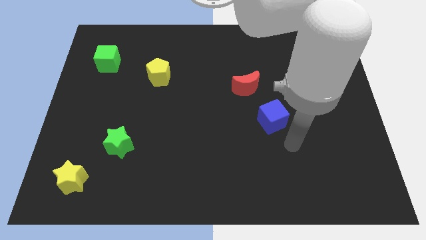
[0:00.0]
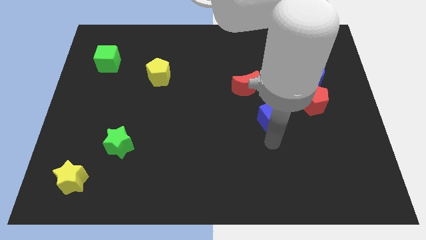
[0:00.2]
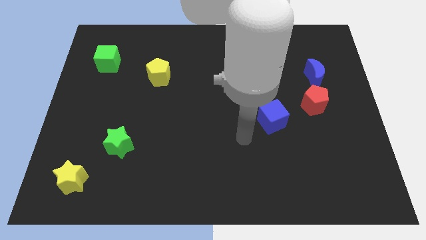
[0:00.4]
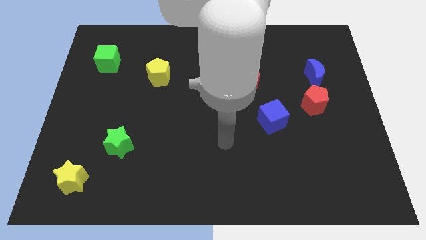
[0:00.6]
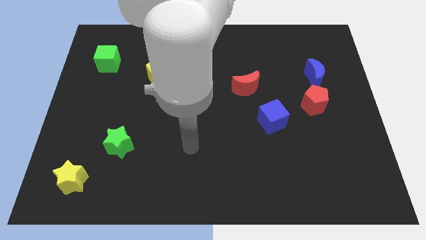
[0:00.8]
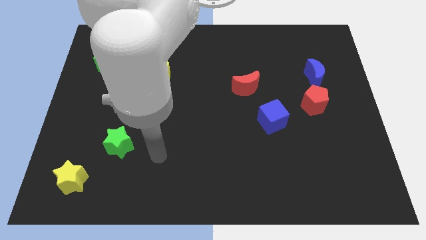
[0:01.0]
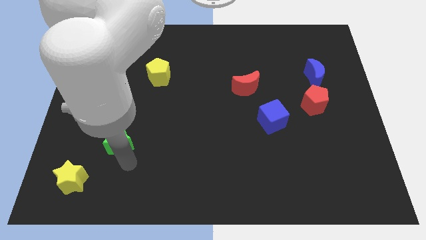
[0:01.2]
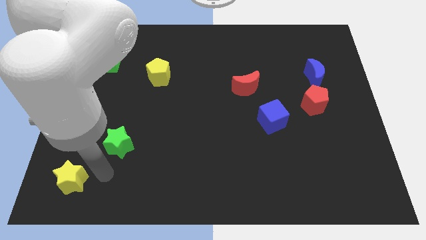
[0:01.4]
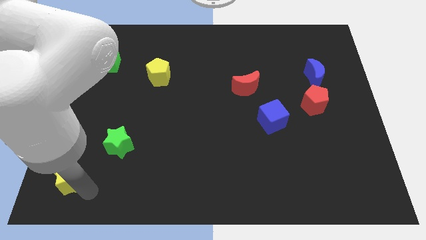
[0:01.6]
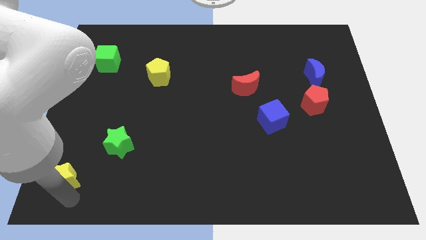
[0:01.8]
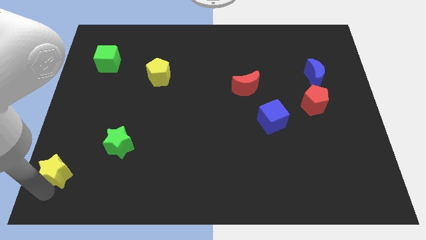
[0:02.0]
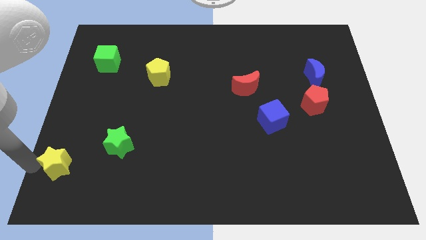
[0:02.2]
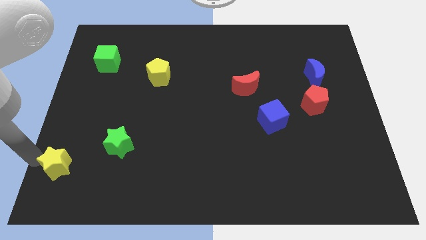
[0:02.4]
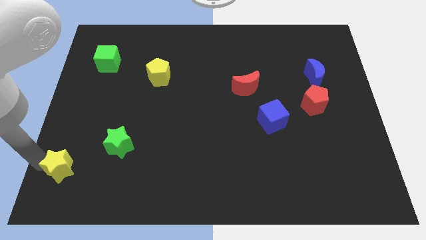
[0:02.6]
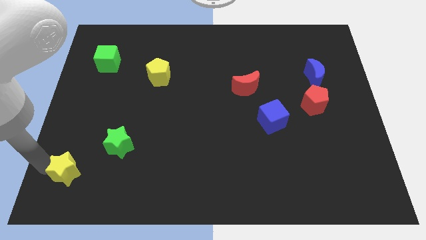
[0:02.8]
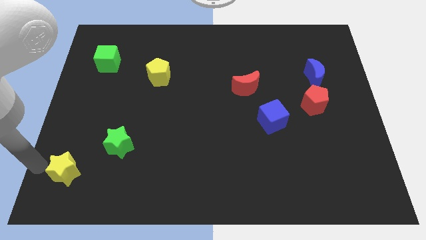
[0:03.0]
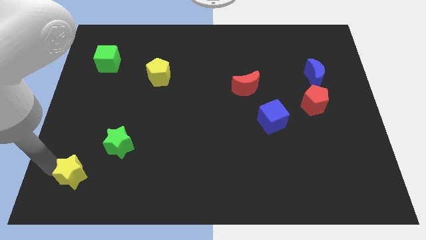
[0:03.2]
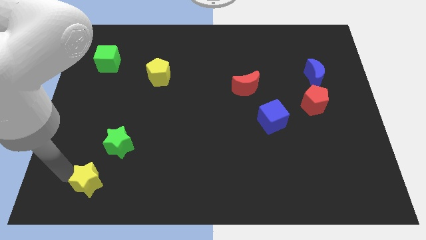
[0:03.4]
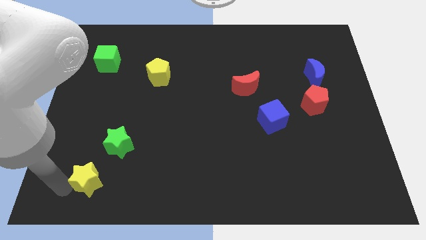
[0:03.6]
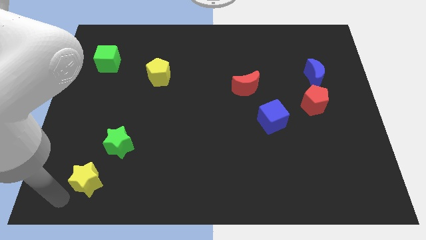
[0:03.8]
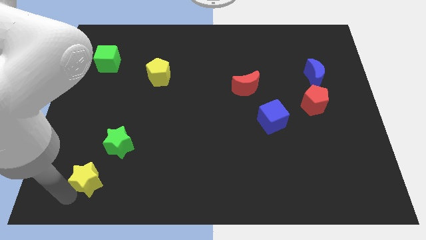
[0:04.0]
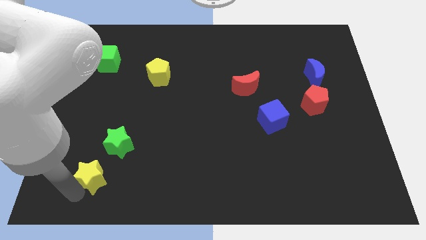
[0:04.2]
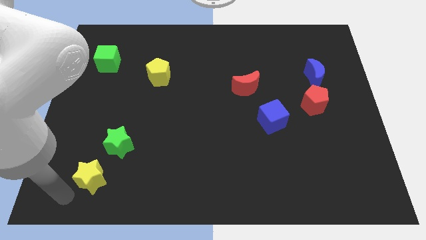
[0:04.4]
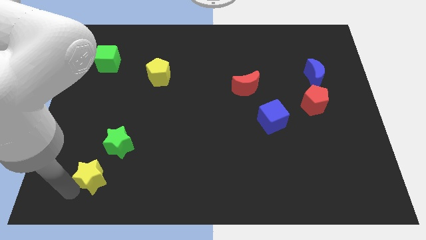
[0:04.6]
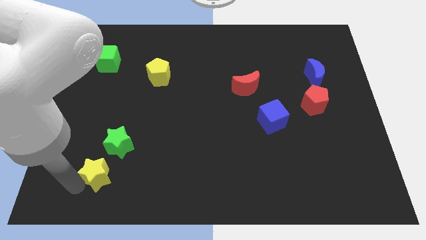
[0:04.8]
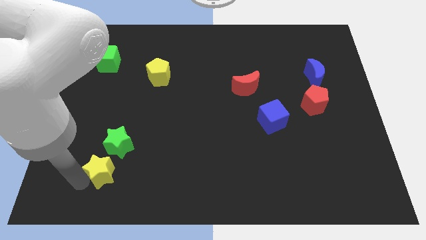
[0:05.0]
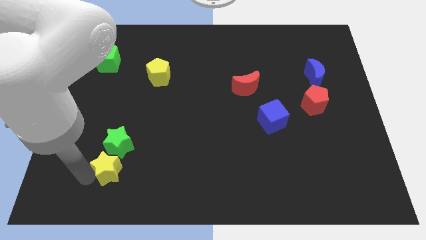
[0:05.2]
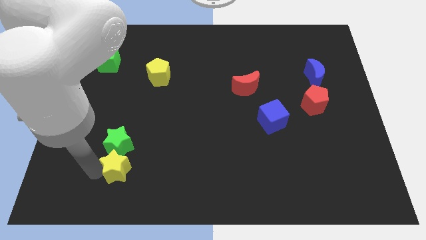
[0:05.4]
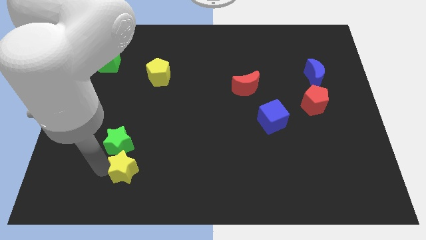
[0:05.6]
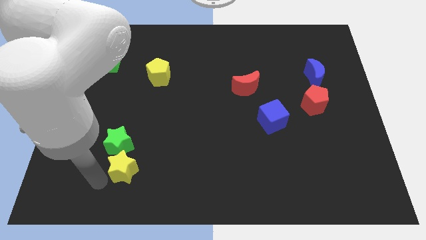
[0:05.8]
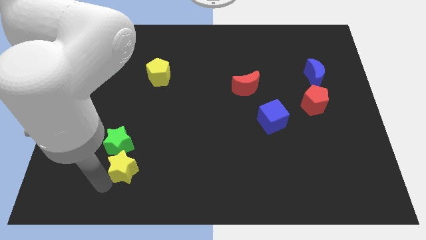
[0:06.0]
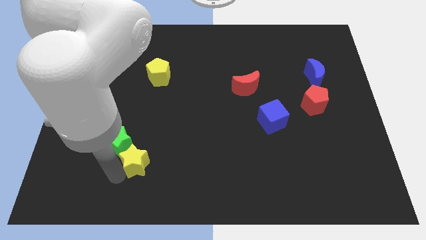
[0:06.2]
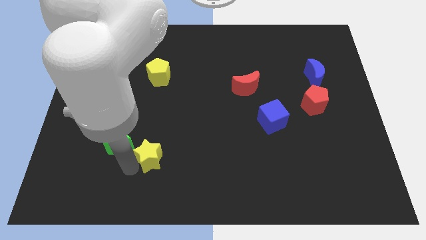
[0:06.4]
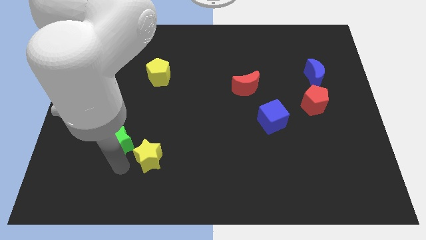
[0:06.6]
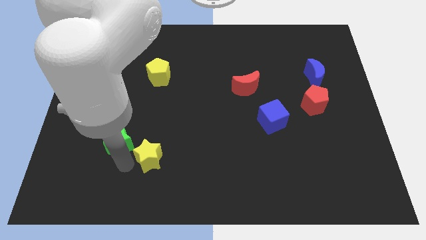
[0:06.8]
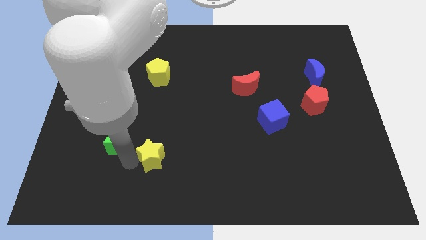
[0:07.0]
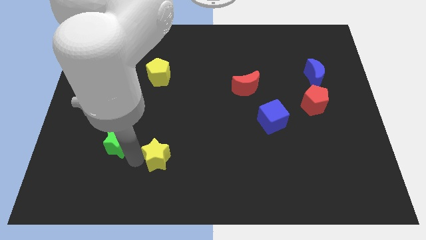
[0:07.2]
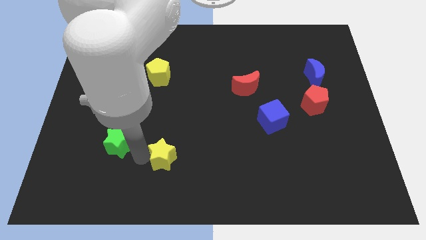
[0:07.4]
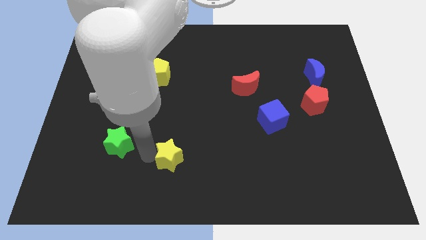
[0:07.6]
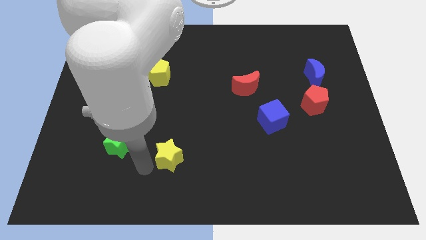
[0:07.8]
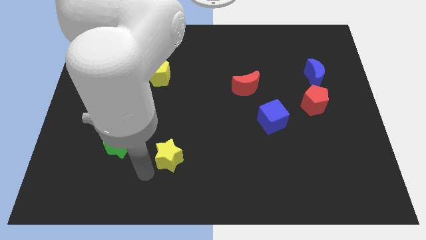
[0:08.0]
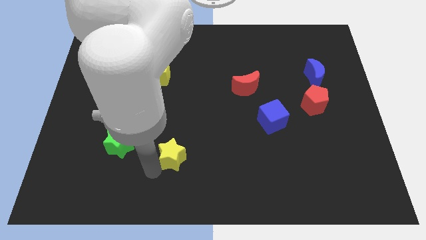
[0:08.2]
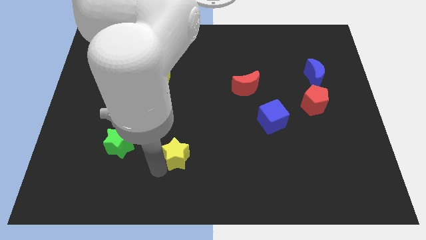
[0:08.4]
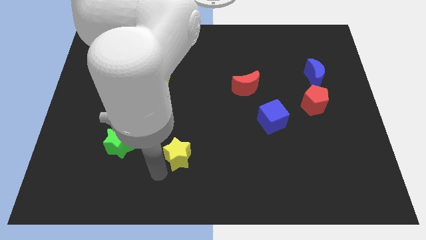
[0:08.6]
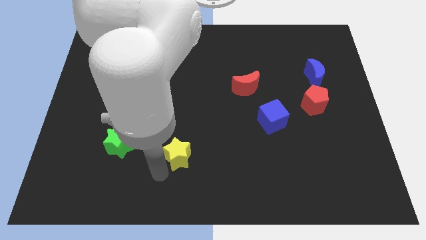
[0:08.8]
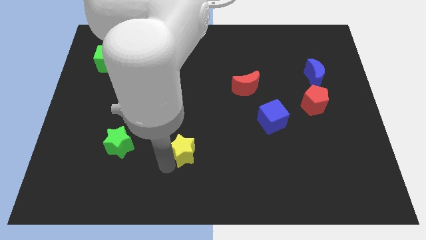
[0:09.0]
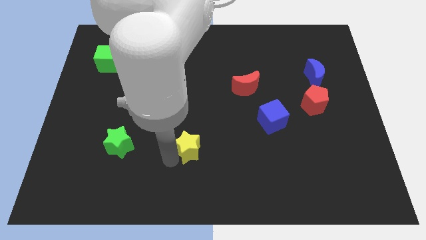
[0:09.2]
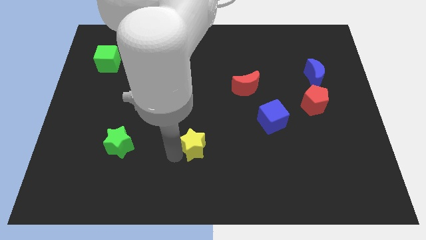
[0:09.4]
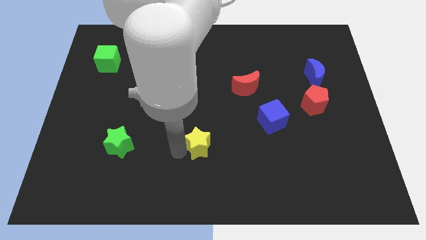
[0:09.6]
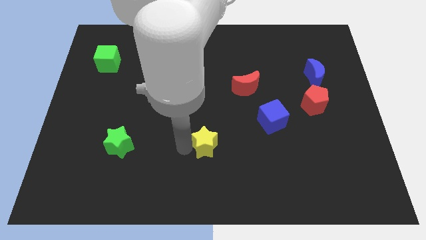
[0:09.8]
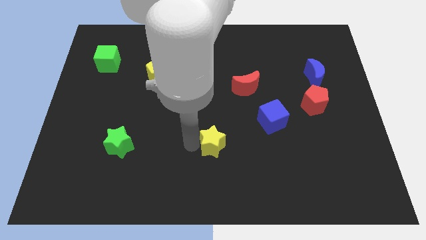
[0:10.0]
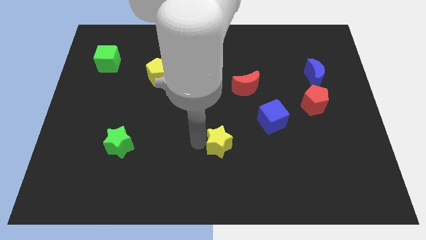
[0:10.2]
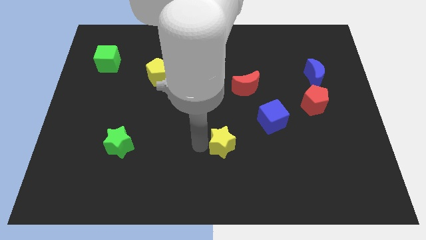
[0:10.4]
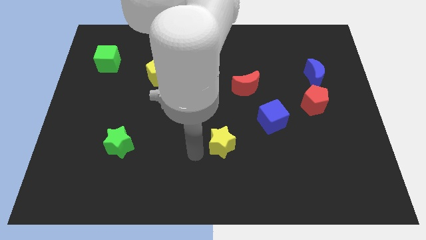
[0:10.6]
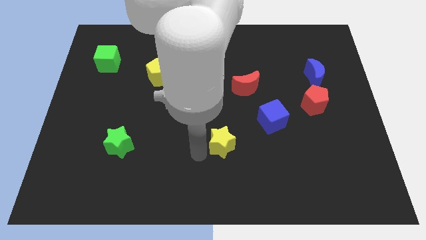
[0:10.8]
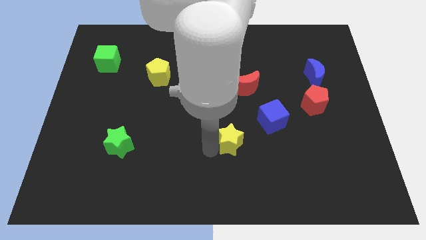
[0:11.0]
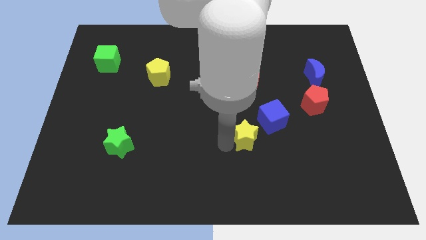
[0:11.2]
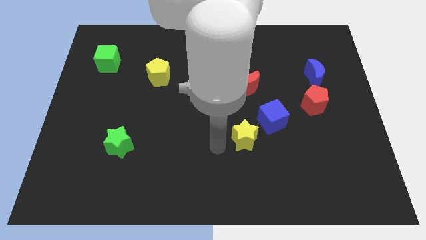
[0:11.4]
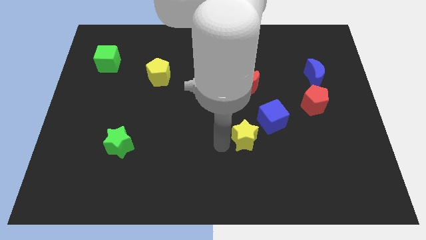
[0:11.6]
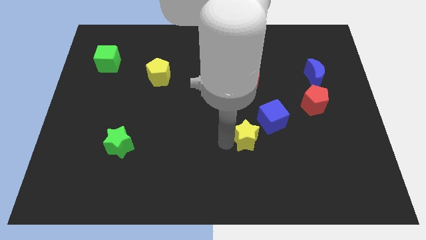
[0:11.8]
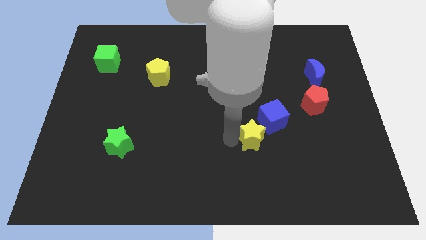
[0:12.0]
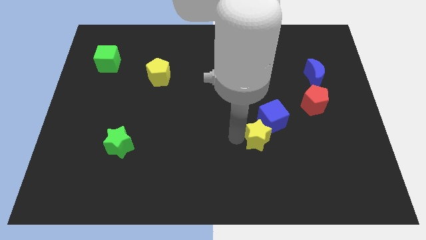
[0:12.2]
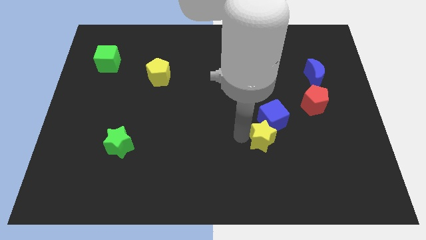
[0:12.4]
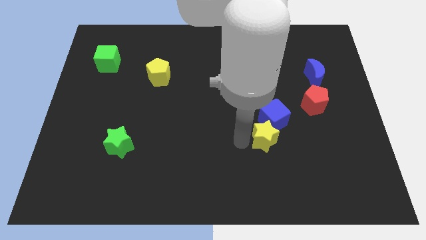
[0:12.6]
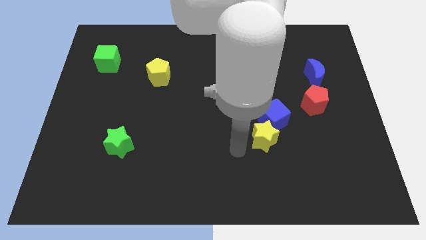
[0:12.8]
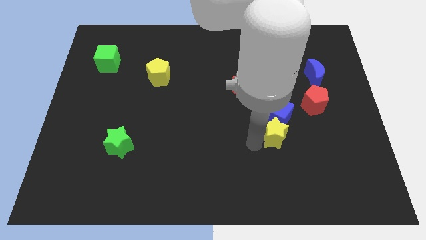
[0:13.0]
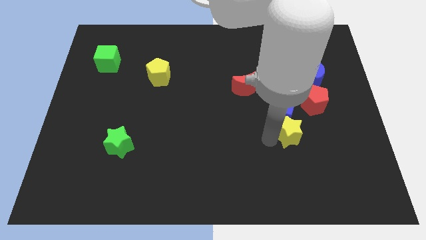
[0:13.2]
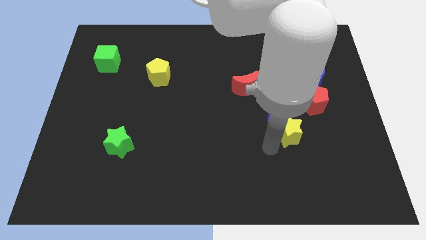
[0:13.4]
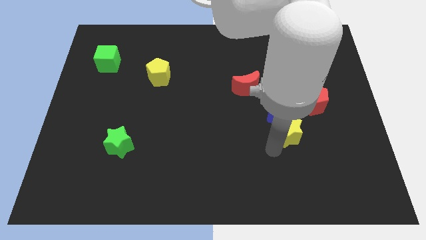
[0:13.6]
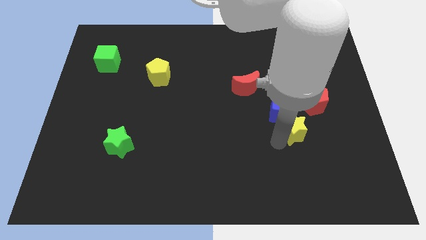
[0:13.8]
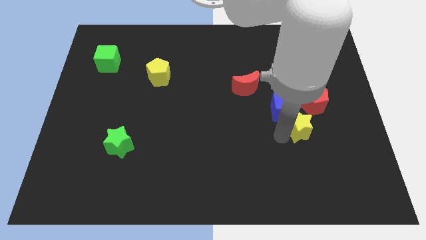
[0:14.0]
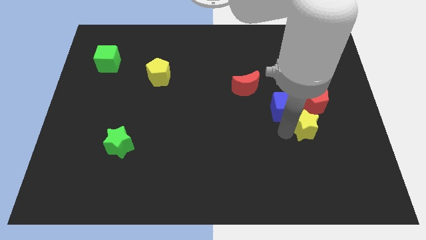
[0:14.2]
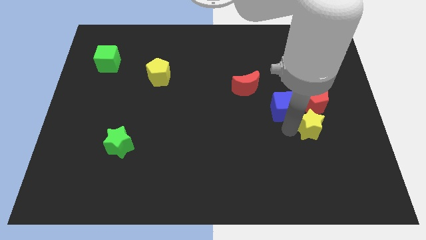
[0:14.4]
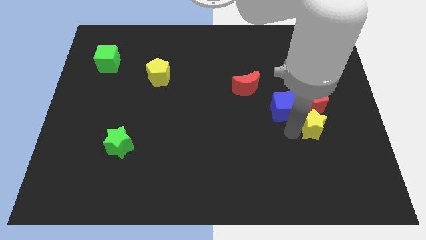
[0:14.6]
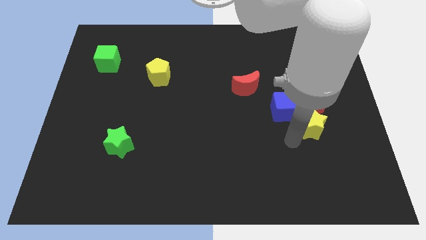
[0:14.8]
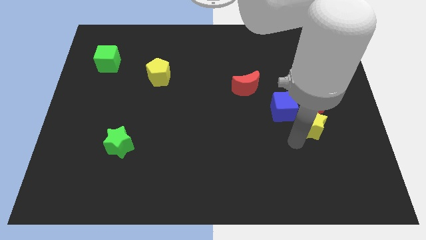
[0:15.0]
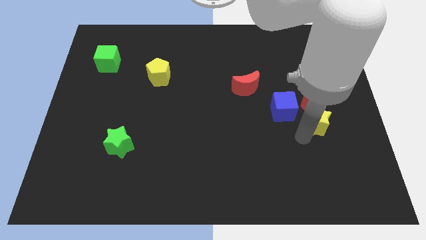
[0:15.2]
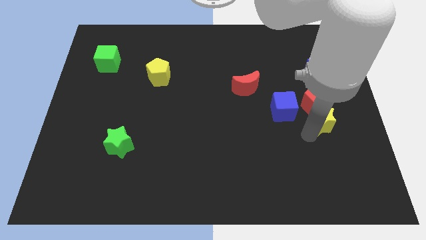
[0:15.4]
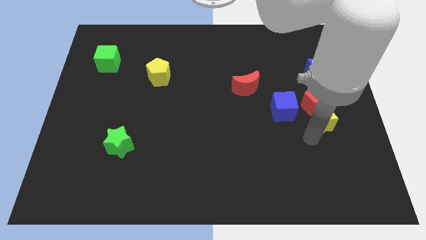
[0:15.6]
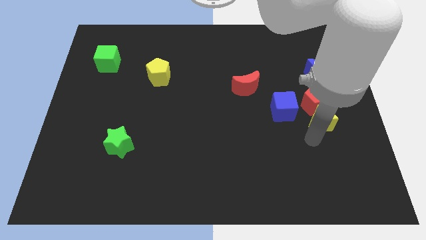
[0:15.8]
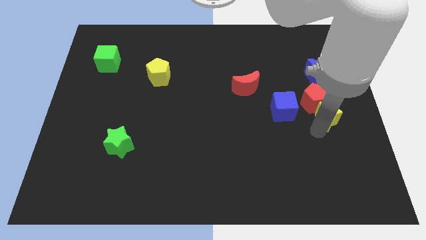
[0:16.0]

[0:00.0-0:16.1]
slide the yellow star to the right side of the board

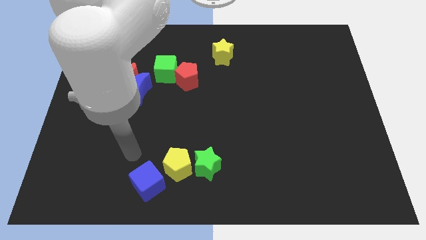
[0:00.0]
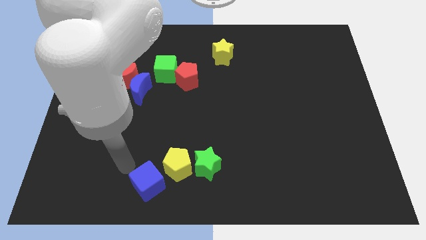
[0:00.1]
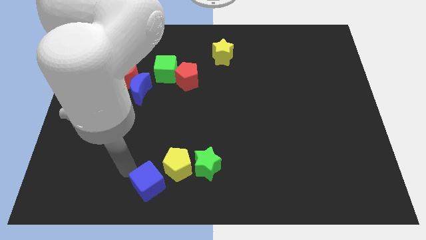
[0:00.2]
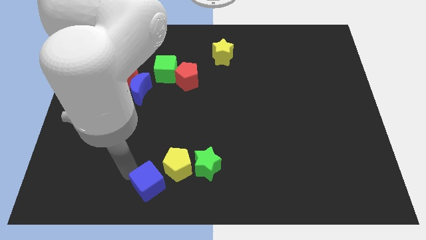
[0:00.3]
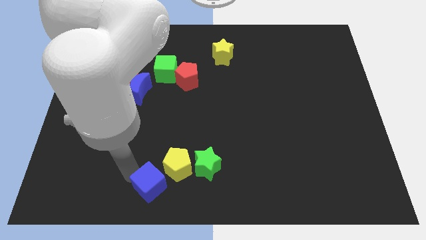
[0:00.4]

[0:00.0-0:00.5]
push the blue cube to the bottom
